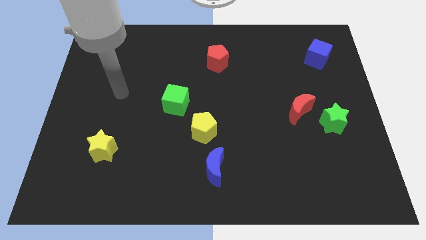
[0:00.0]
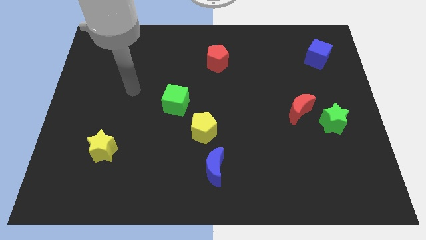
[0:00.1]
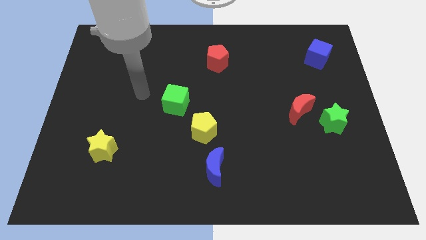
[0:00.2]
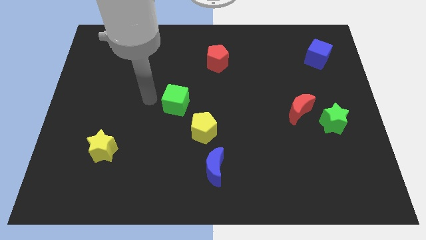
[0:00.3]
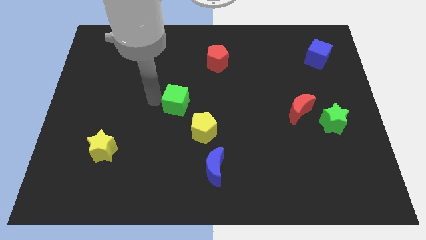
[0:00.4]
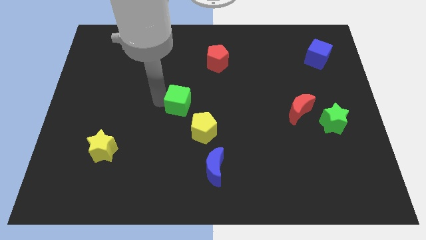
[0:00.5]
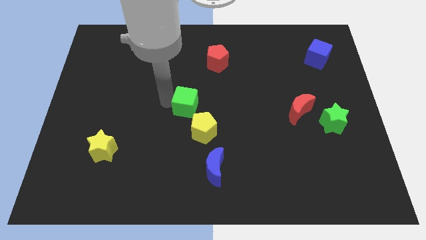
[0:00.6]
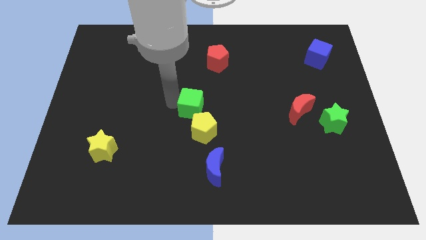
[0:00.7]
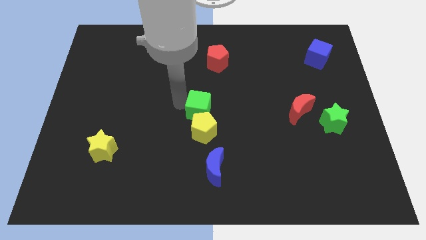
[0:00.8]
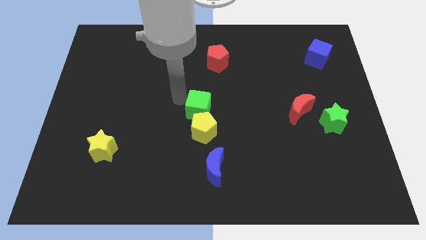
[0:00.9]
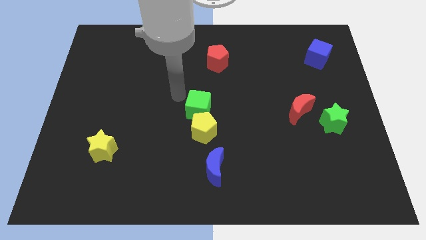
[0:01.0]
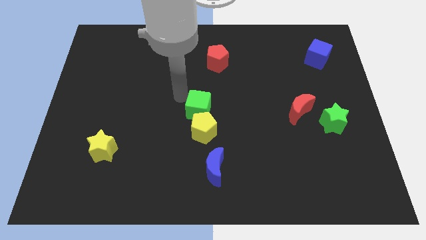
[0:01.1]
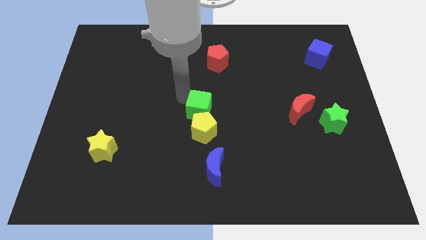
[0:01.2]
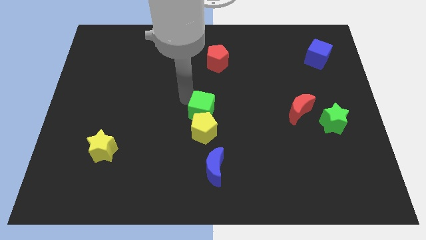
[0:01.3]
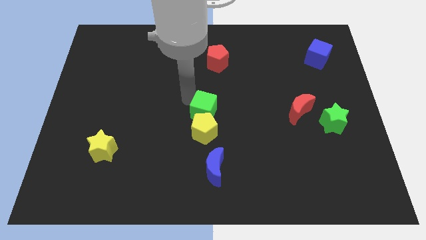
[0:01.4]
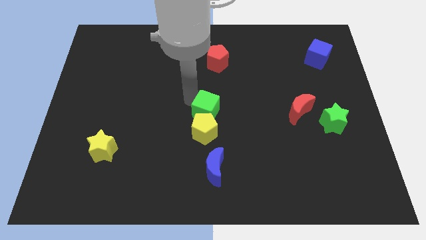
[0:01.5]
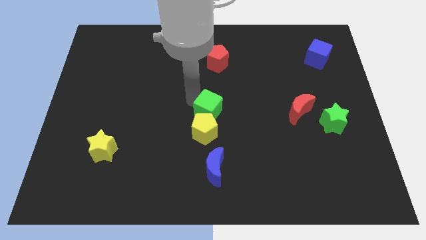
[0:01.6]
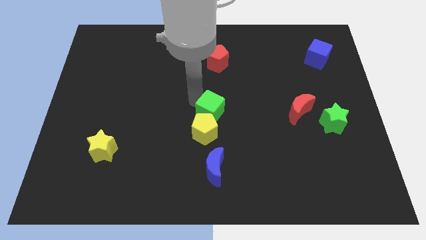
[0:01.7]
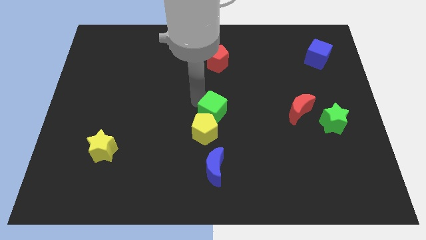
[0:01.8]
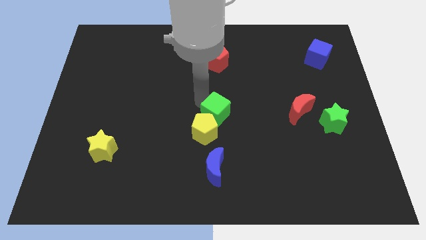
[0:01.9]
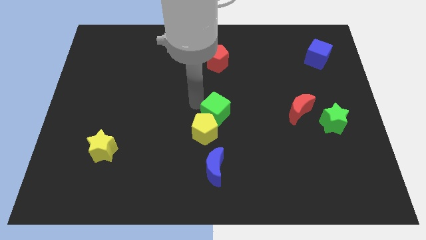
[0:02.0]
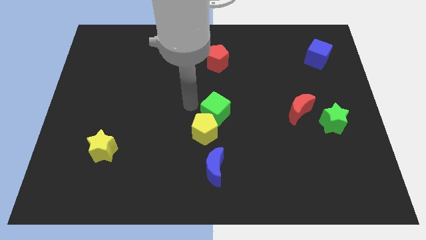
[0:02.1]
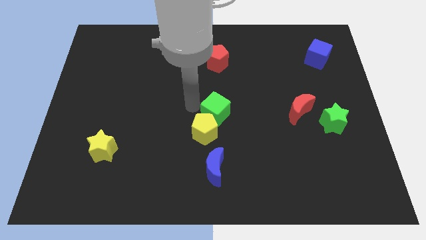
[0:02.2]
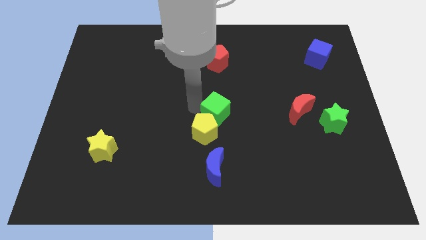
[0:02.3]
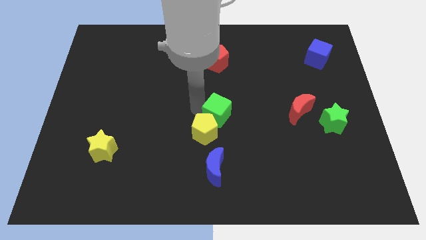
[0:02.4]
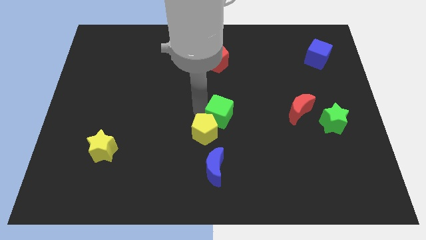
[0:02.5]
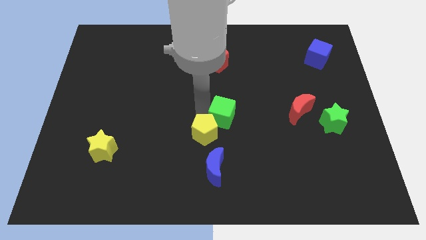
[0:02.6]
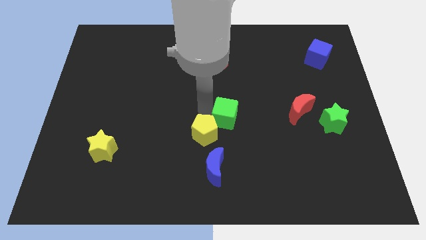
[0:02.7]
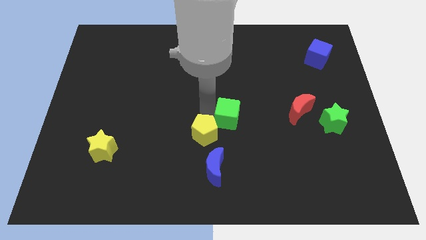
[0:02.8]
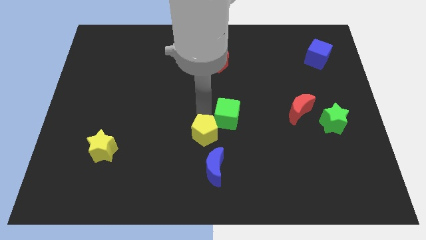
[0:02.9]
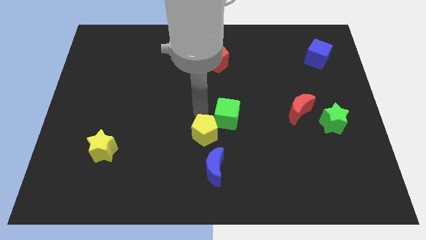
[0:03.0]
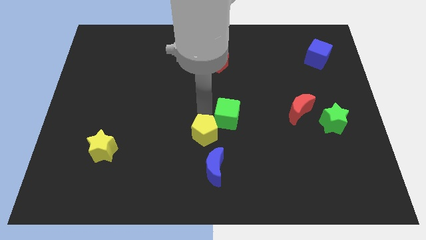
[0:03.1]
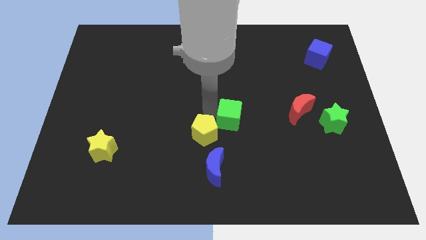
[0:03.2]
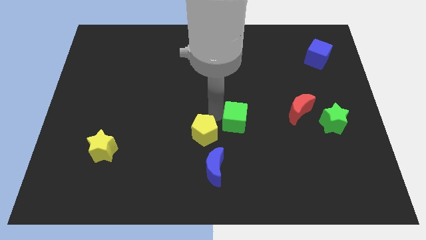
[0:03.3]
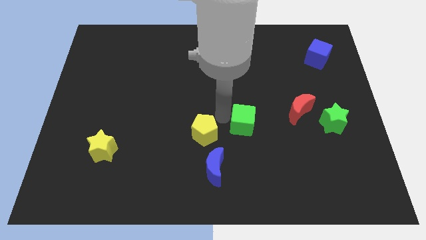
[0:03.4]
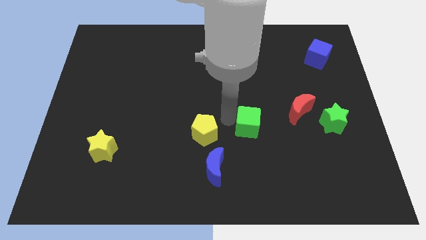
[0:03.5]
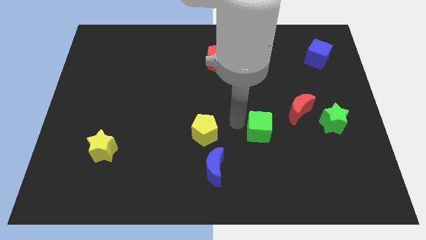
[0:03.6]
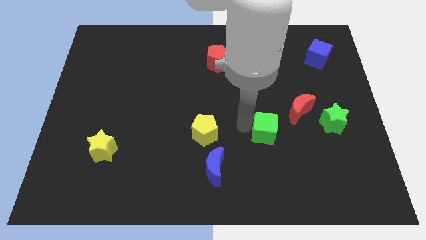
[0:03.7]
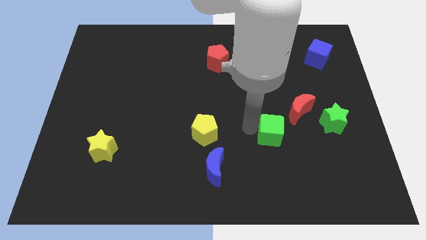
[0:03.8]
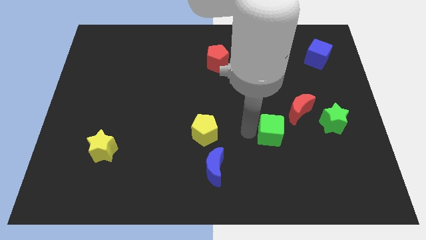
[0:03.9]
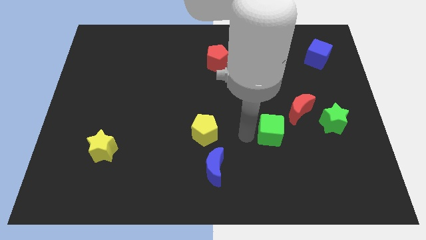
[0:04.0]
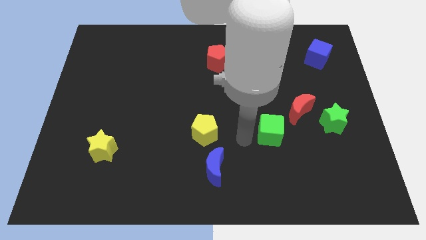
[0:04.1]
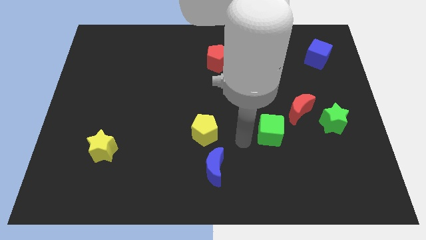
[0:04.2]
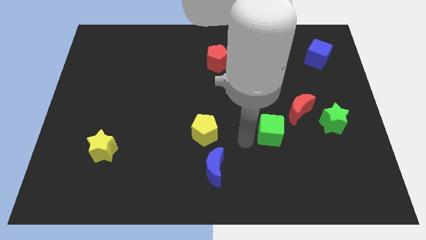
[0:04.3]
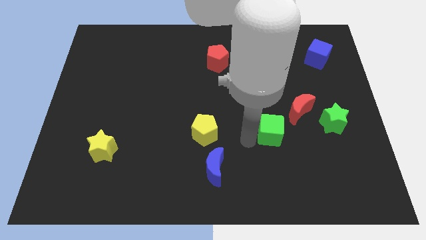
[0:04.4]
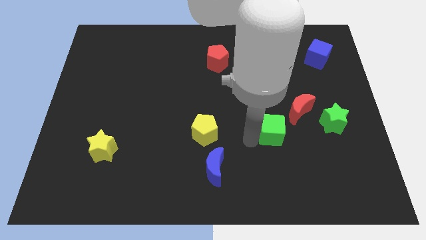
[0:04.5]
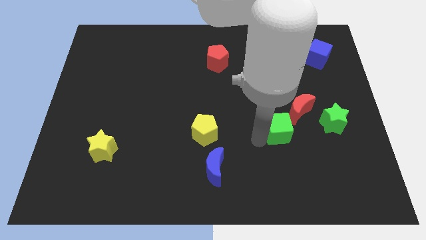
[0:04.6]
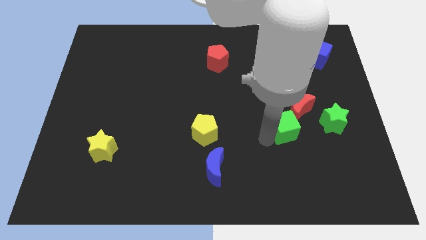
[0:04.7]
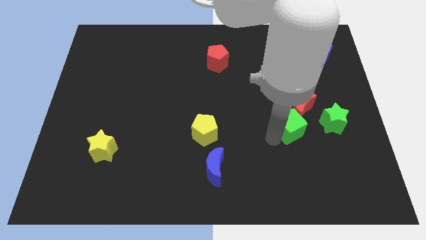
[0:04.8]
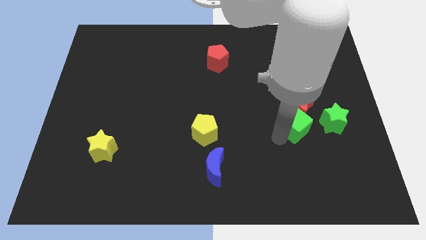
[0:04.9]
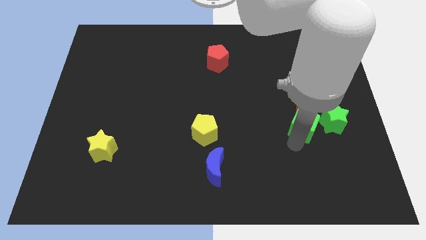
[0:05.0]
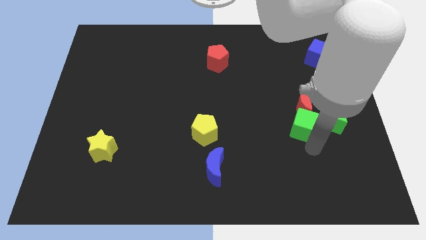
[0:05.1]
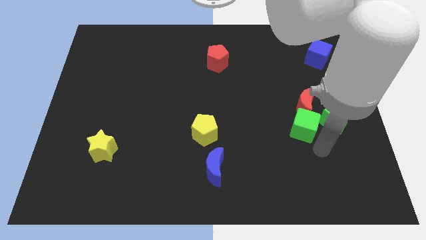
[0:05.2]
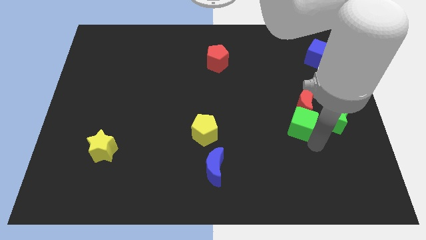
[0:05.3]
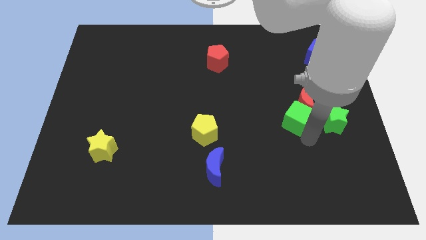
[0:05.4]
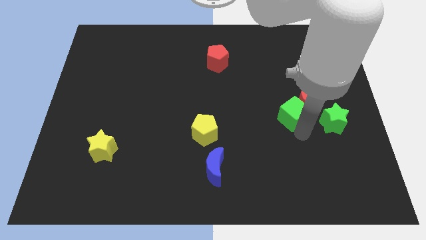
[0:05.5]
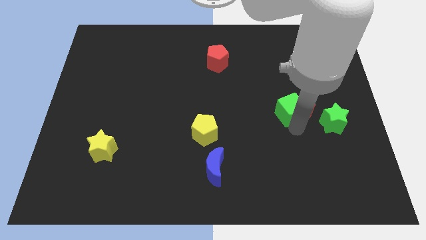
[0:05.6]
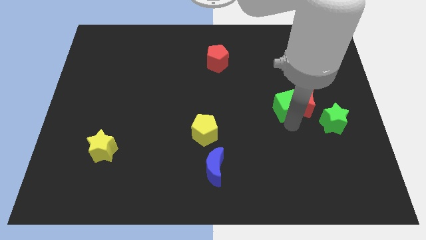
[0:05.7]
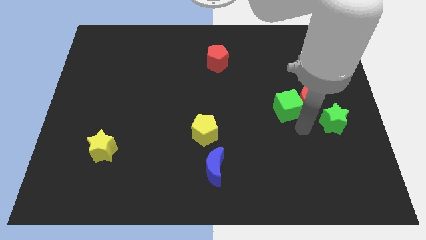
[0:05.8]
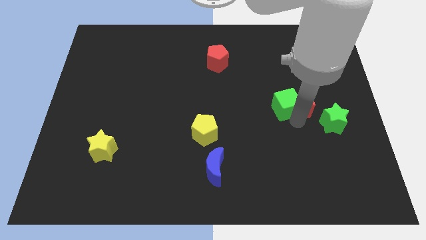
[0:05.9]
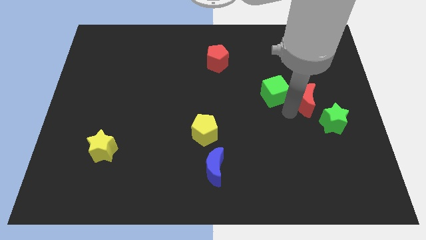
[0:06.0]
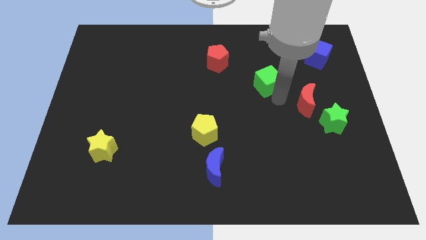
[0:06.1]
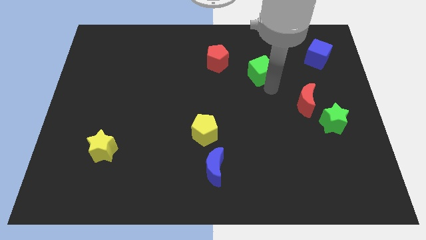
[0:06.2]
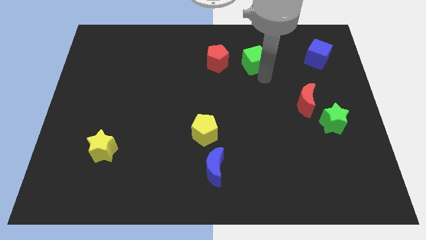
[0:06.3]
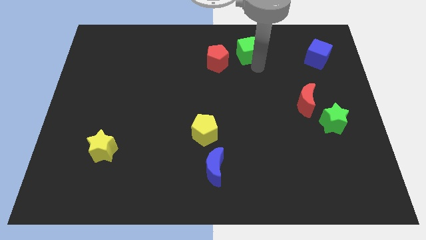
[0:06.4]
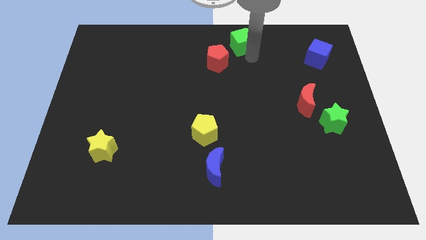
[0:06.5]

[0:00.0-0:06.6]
put the green cube to the towards your base
